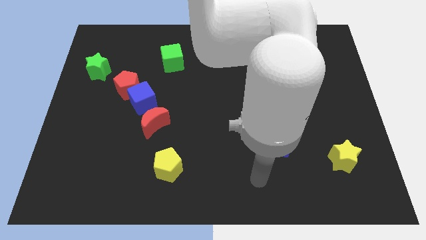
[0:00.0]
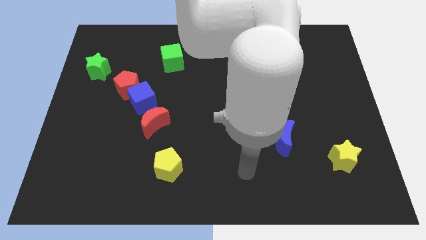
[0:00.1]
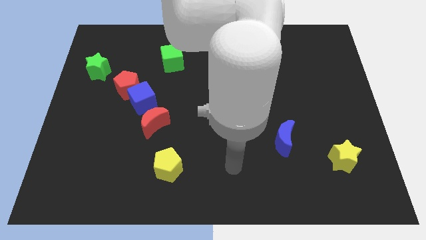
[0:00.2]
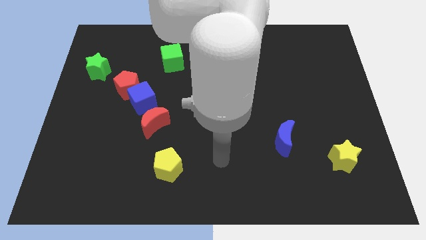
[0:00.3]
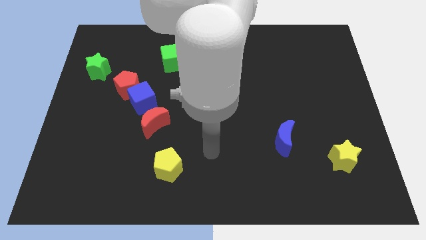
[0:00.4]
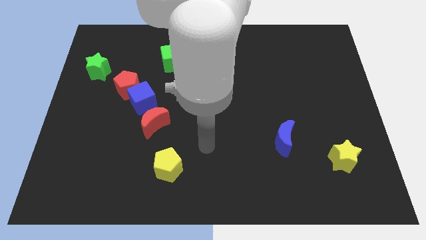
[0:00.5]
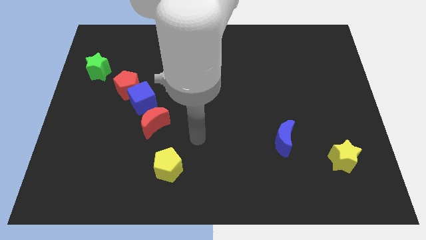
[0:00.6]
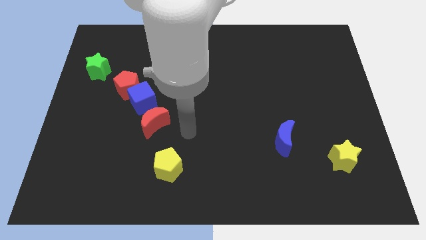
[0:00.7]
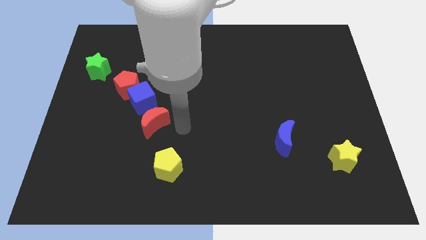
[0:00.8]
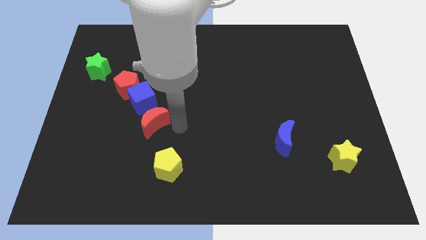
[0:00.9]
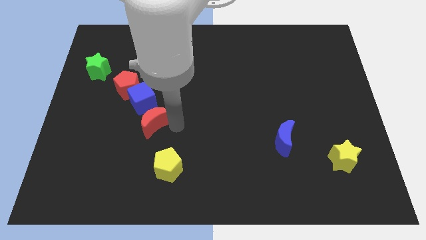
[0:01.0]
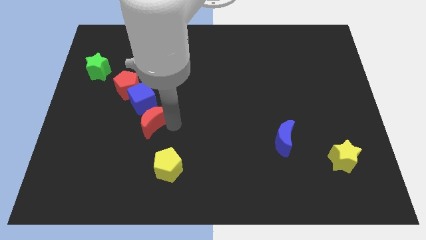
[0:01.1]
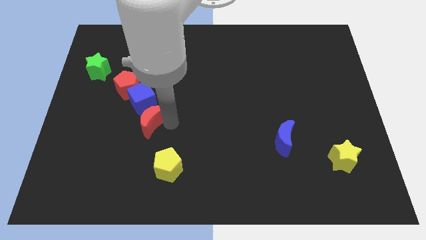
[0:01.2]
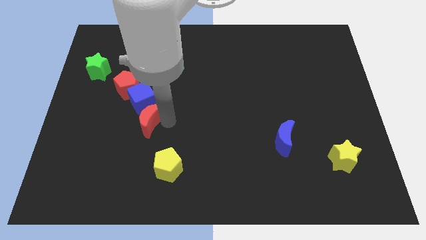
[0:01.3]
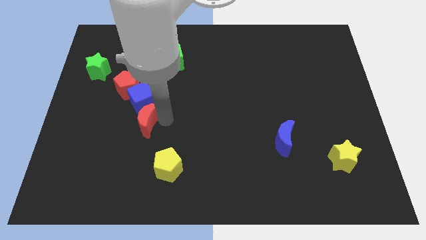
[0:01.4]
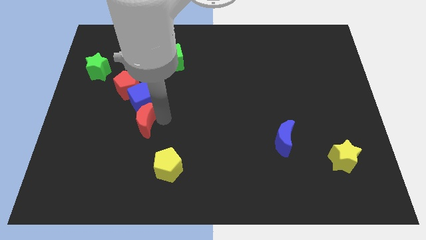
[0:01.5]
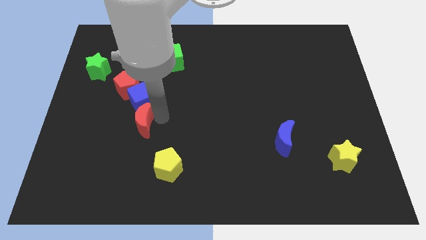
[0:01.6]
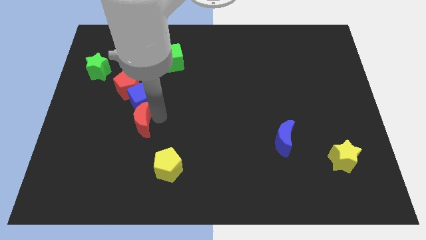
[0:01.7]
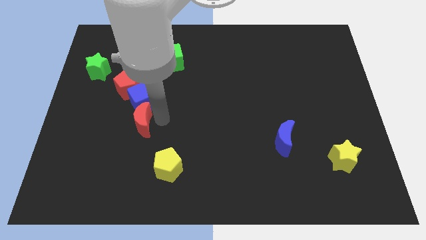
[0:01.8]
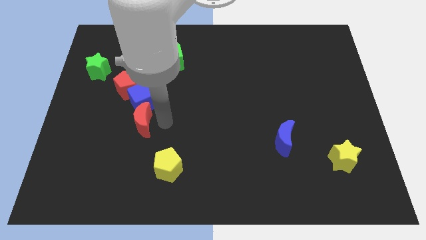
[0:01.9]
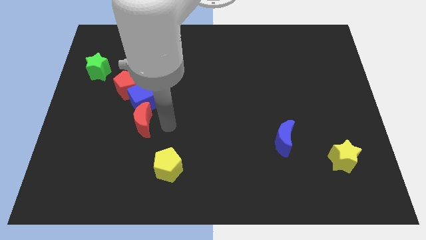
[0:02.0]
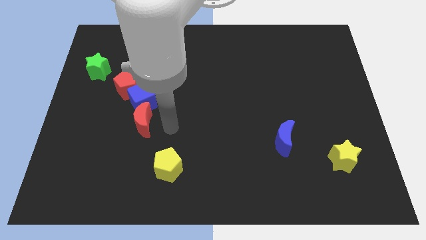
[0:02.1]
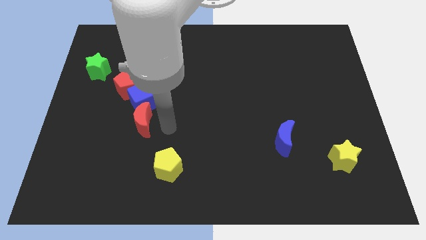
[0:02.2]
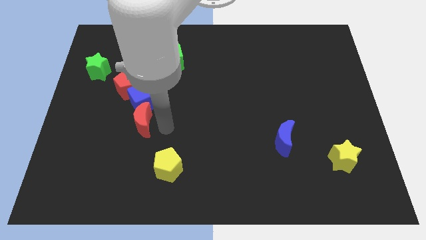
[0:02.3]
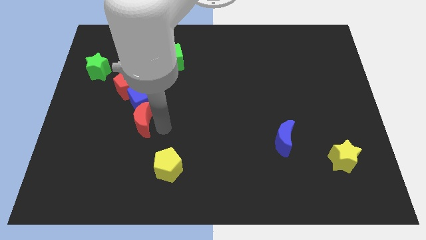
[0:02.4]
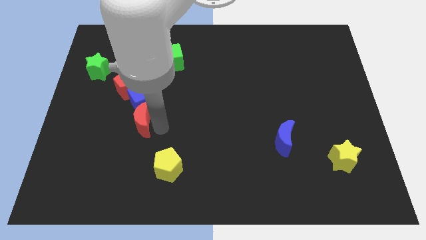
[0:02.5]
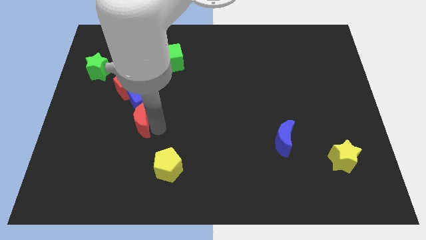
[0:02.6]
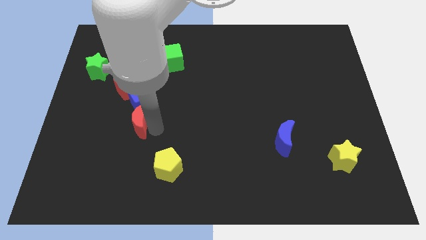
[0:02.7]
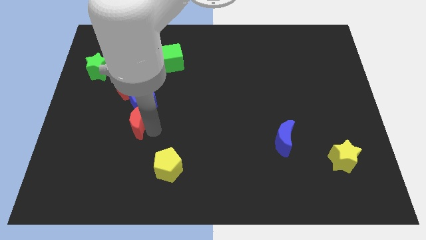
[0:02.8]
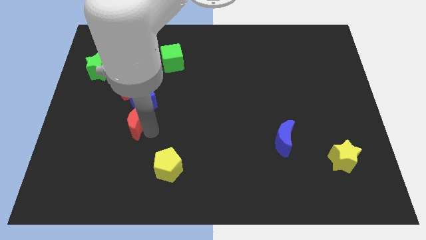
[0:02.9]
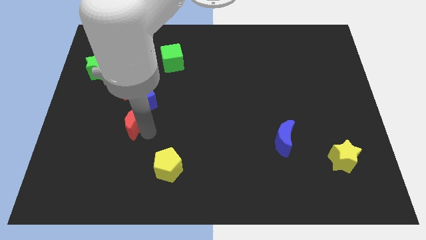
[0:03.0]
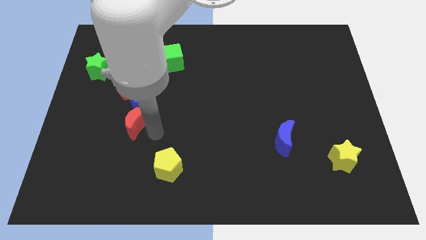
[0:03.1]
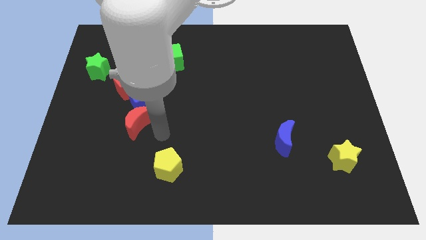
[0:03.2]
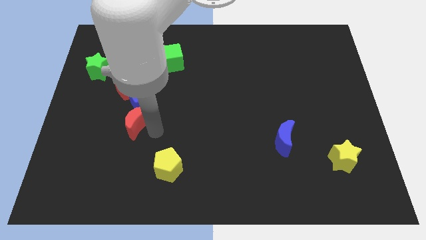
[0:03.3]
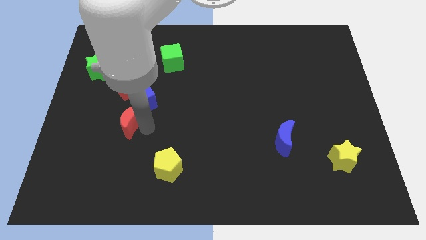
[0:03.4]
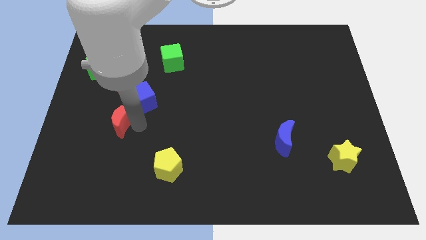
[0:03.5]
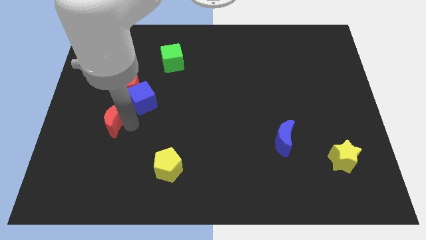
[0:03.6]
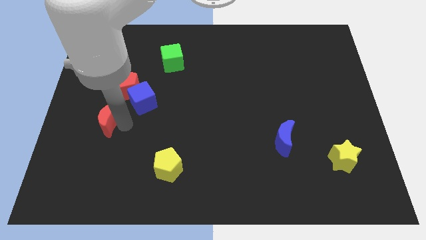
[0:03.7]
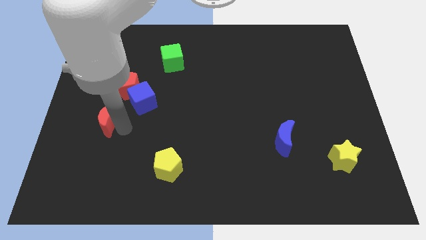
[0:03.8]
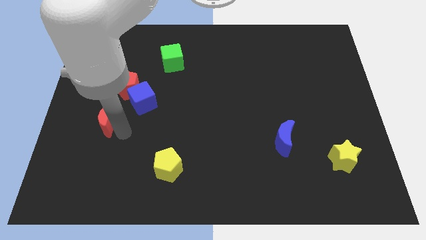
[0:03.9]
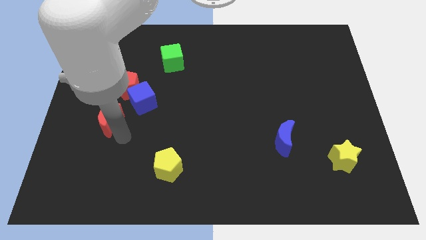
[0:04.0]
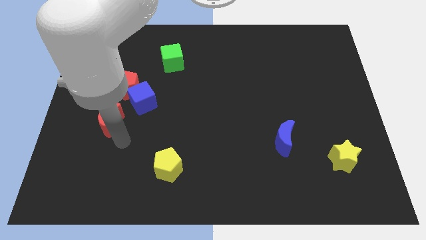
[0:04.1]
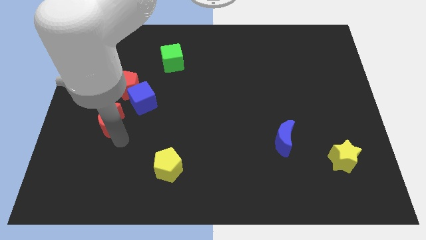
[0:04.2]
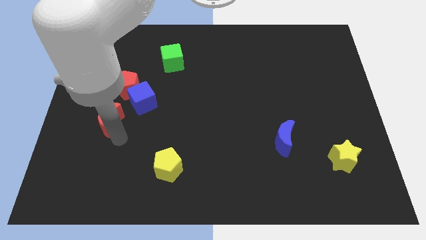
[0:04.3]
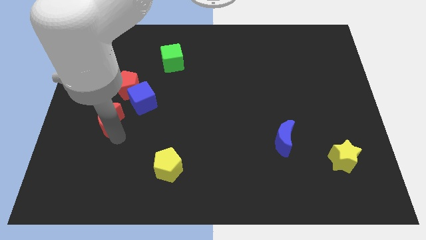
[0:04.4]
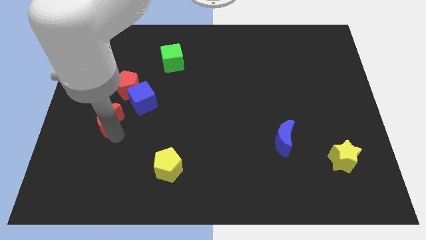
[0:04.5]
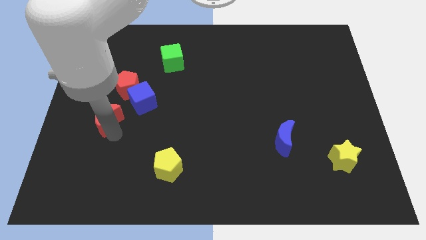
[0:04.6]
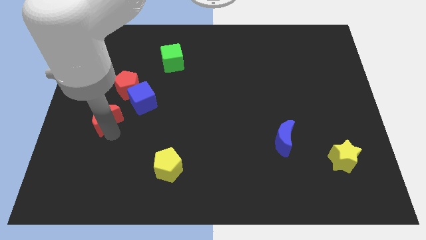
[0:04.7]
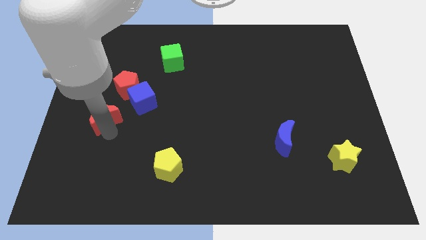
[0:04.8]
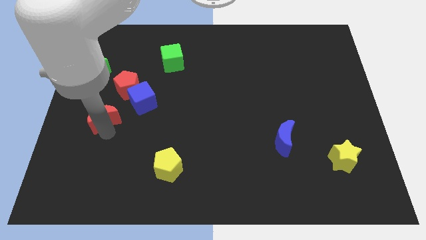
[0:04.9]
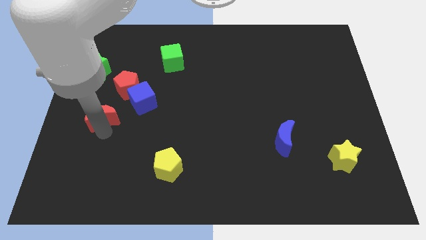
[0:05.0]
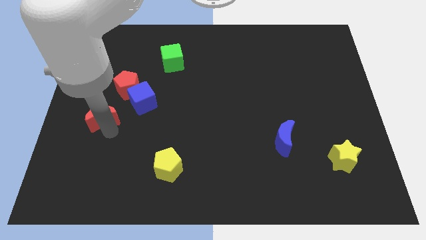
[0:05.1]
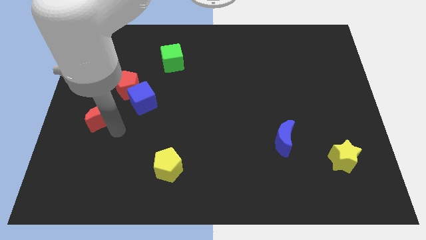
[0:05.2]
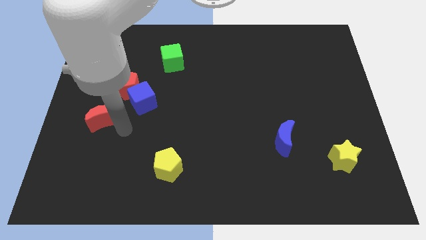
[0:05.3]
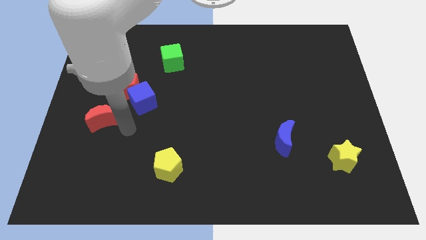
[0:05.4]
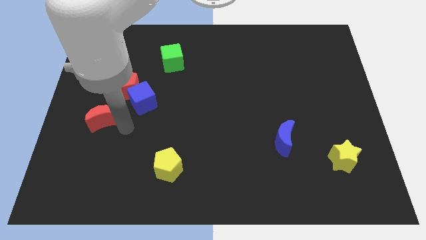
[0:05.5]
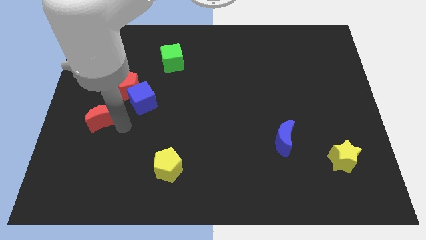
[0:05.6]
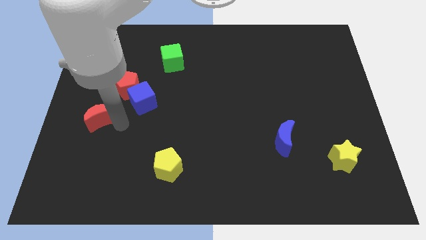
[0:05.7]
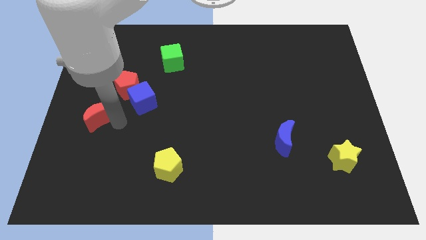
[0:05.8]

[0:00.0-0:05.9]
put the red moon to the center left

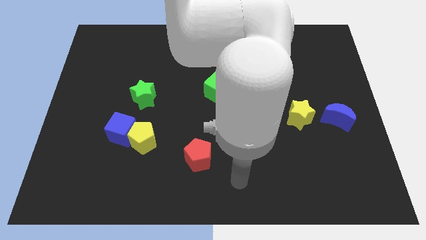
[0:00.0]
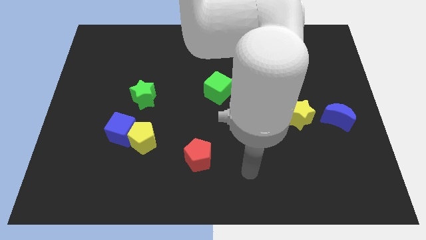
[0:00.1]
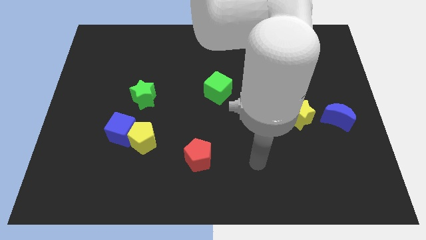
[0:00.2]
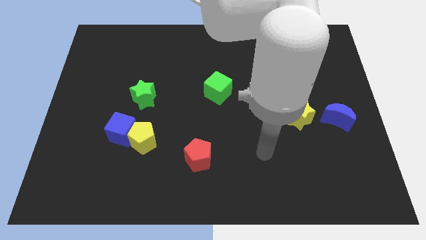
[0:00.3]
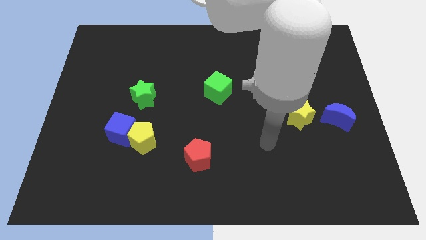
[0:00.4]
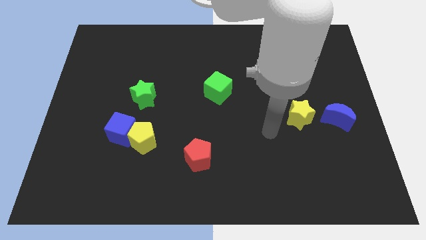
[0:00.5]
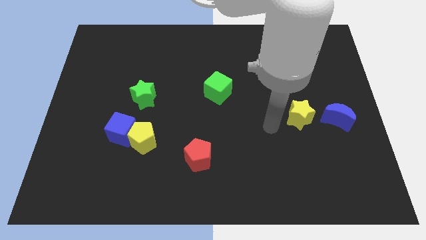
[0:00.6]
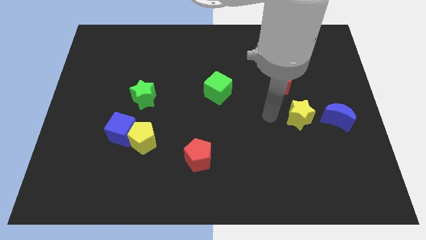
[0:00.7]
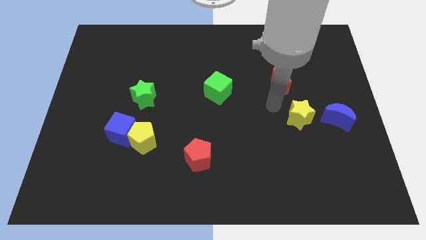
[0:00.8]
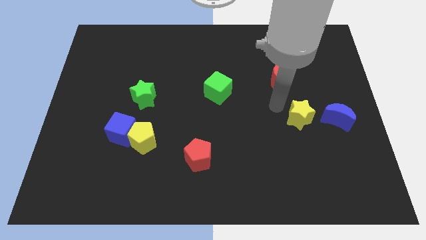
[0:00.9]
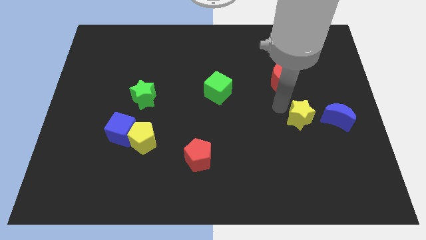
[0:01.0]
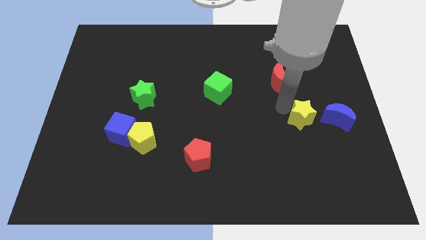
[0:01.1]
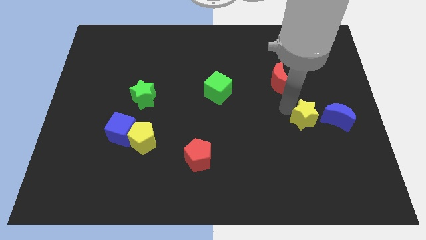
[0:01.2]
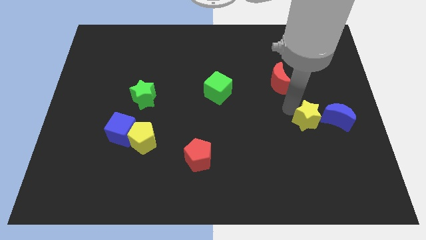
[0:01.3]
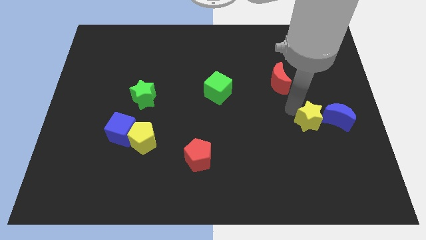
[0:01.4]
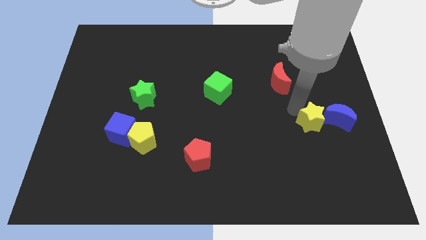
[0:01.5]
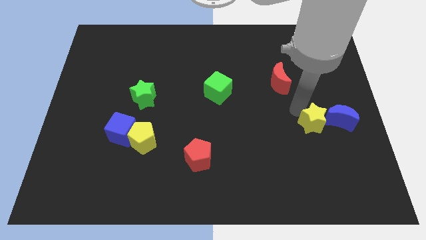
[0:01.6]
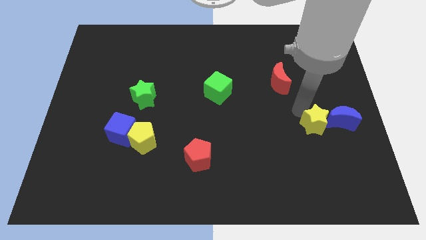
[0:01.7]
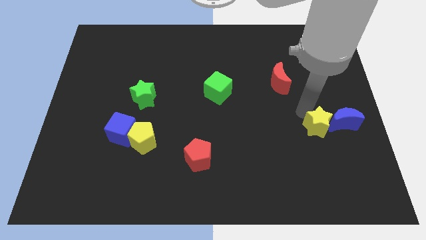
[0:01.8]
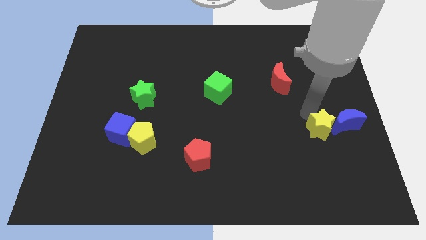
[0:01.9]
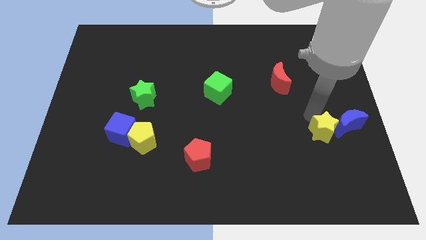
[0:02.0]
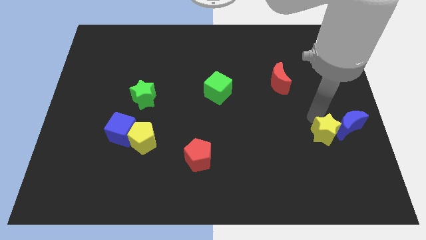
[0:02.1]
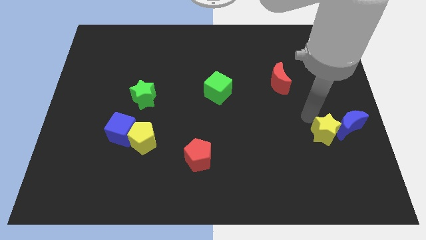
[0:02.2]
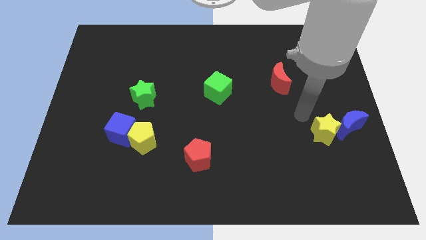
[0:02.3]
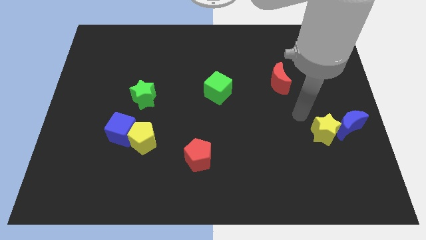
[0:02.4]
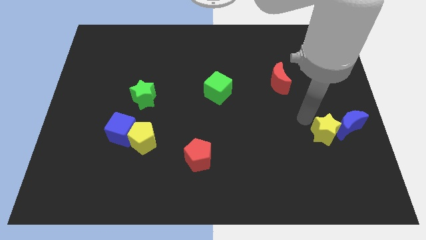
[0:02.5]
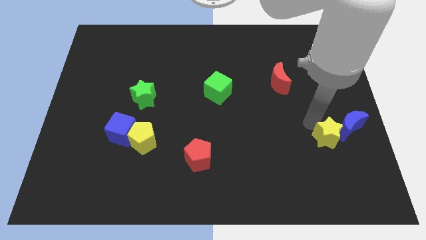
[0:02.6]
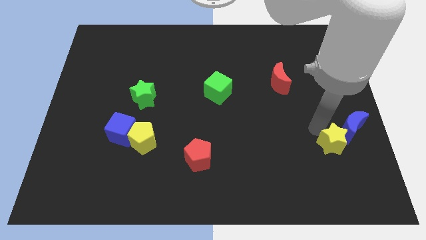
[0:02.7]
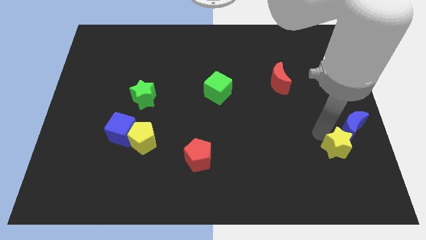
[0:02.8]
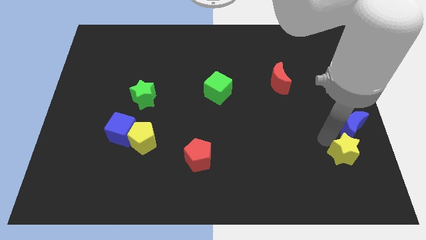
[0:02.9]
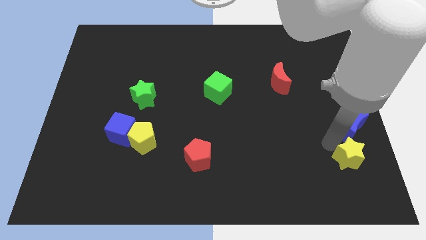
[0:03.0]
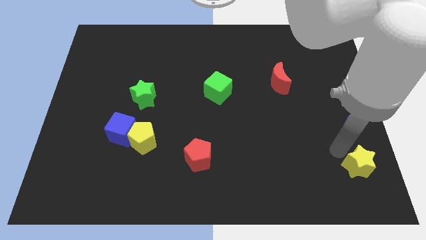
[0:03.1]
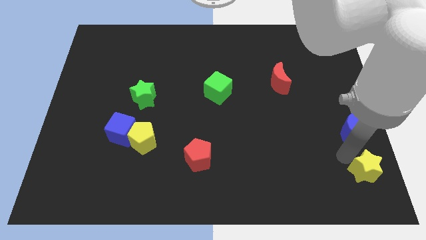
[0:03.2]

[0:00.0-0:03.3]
put the yellow star to the bottom right
